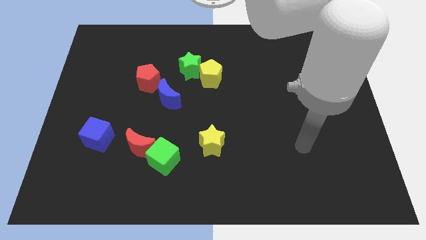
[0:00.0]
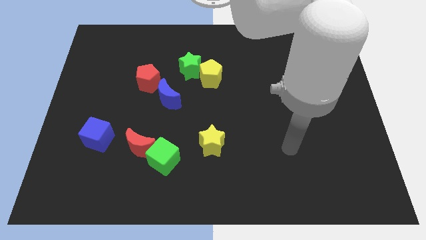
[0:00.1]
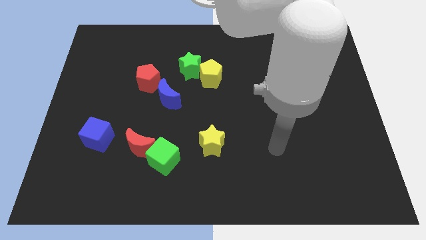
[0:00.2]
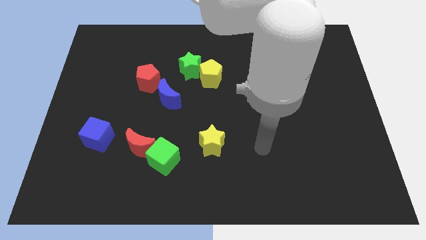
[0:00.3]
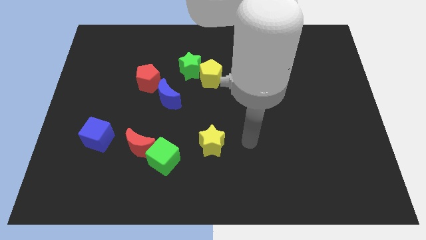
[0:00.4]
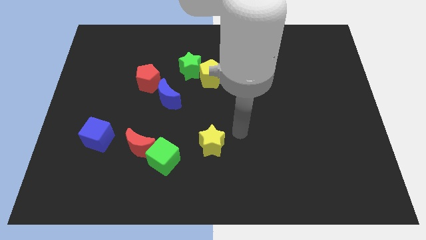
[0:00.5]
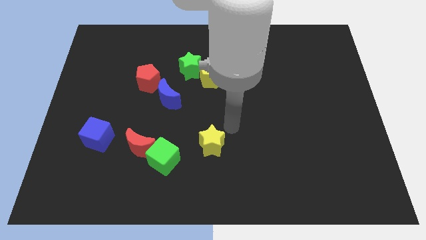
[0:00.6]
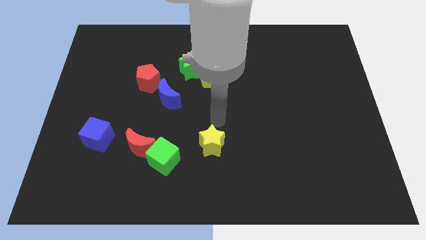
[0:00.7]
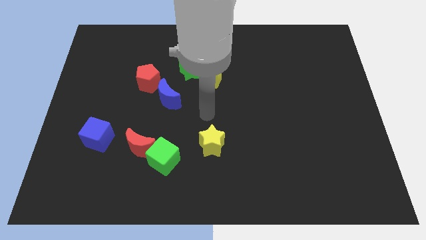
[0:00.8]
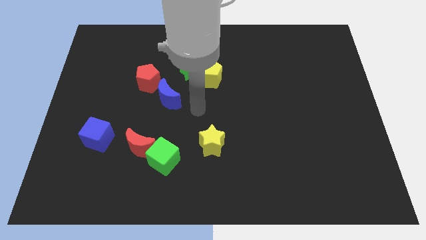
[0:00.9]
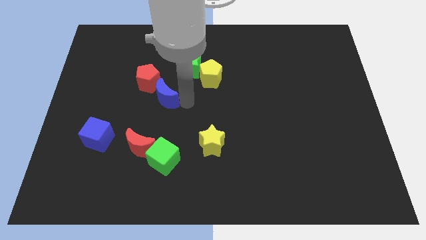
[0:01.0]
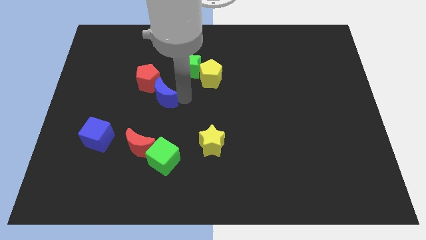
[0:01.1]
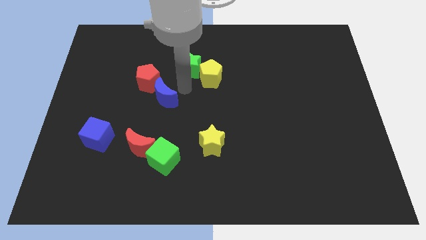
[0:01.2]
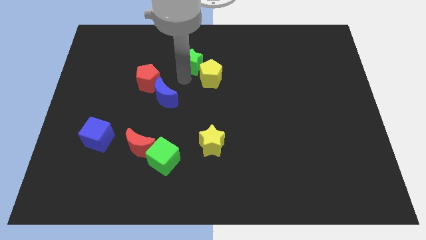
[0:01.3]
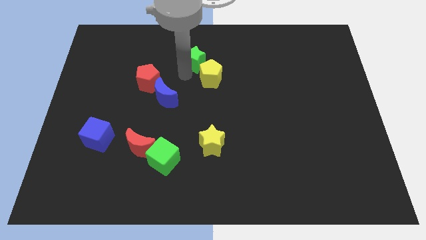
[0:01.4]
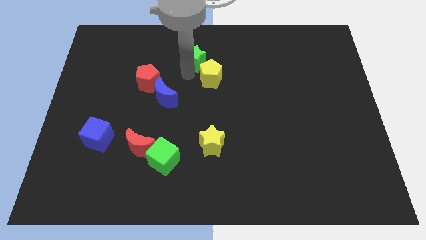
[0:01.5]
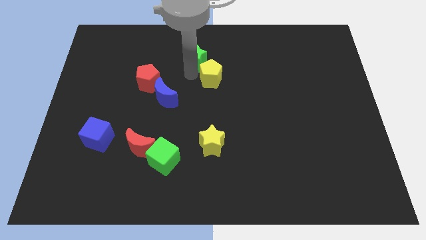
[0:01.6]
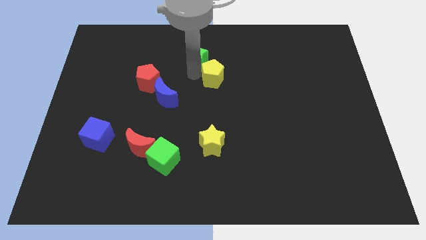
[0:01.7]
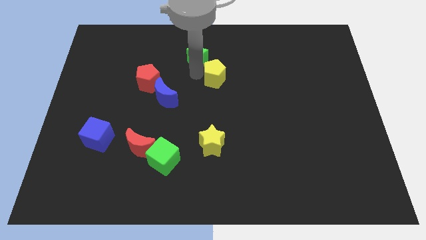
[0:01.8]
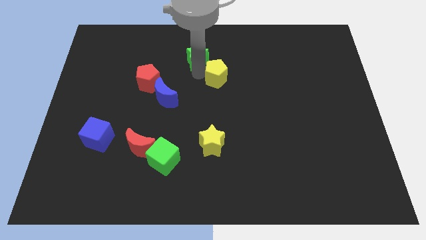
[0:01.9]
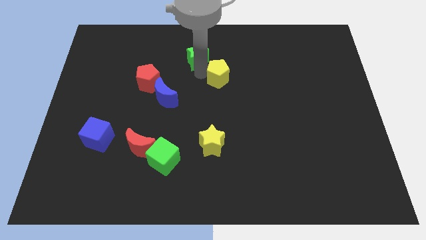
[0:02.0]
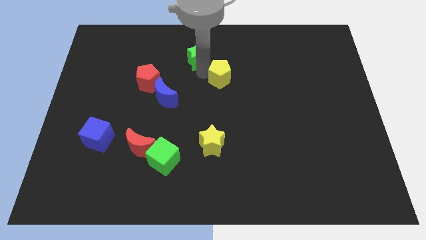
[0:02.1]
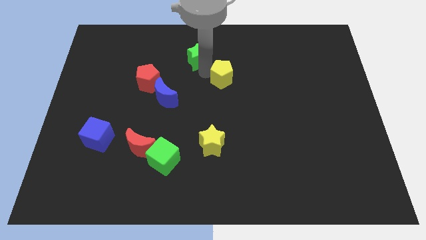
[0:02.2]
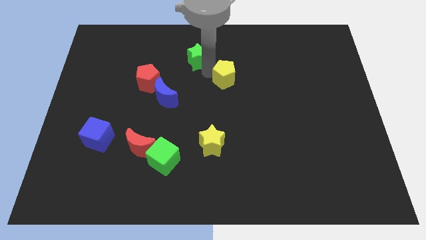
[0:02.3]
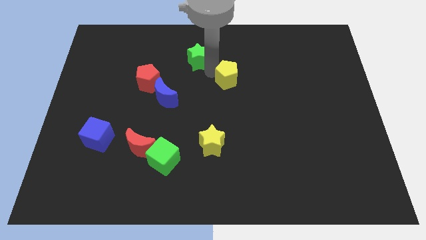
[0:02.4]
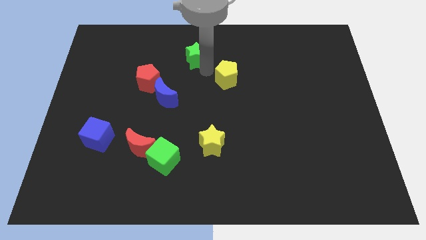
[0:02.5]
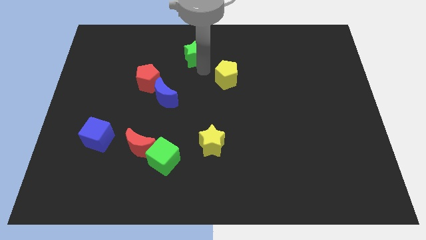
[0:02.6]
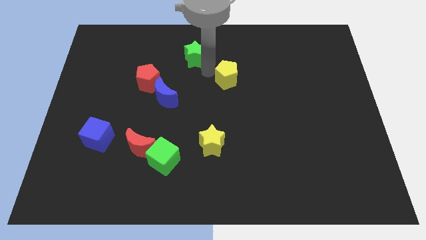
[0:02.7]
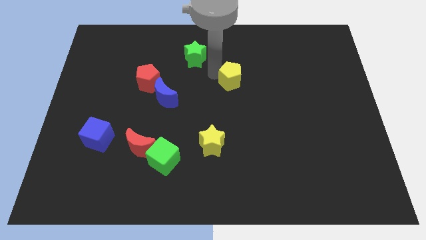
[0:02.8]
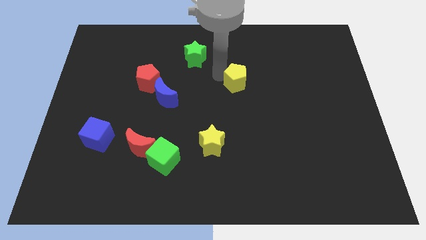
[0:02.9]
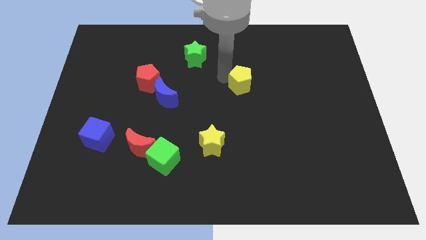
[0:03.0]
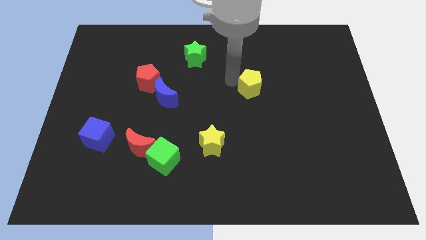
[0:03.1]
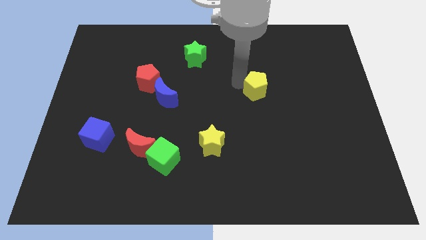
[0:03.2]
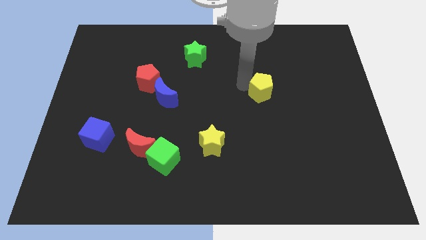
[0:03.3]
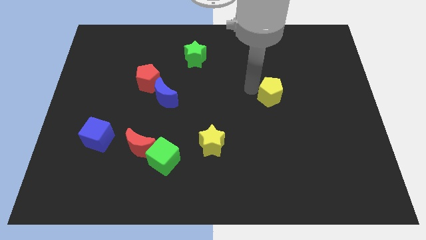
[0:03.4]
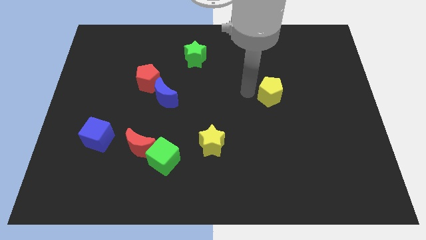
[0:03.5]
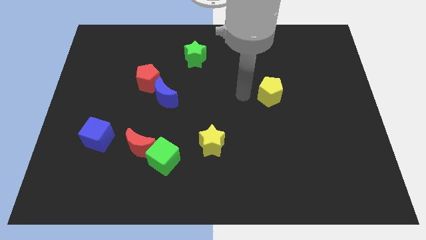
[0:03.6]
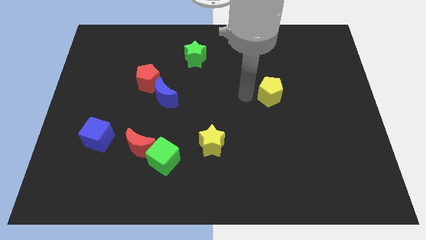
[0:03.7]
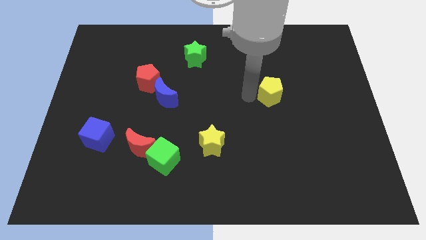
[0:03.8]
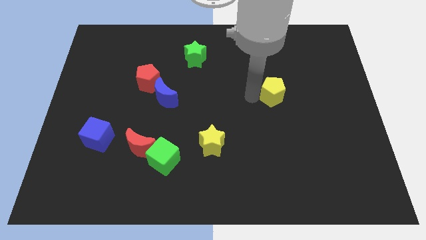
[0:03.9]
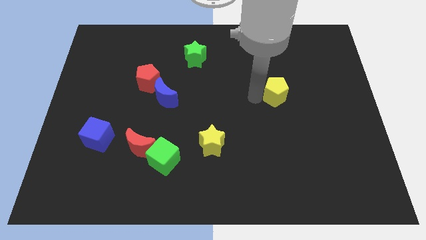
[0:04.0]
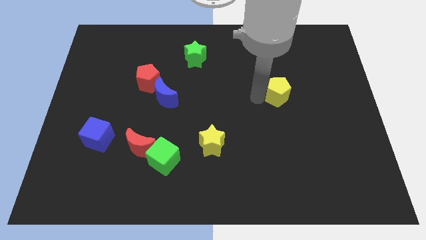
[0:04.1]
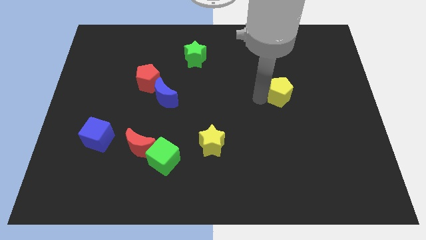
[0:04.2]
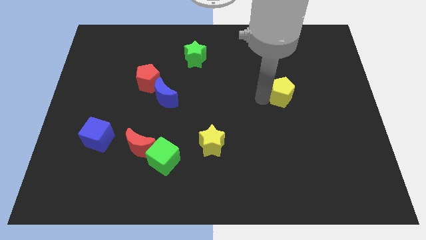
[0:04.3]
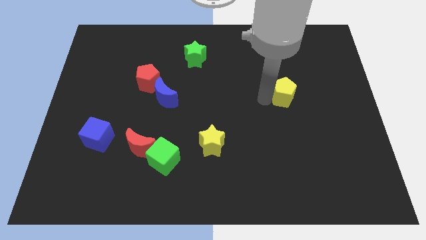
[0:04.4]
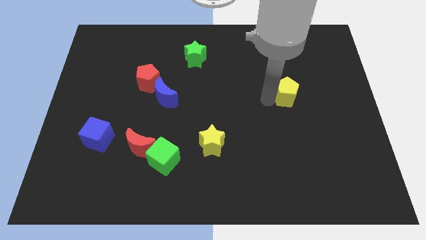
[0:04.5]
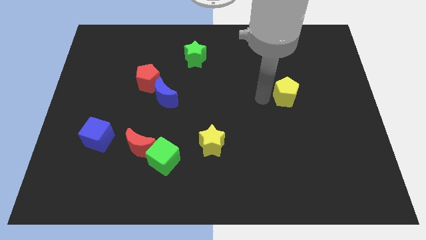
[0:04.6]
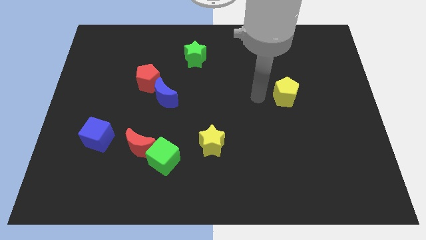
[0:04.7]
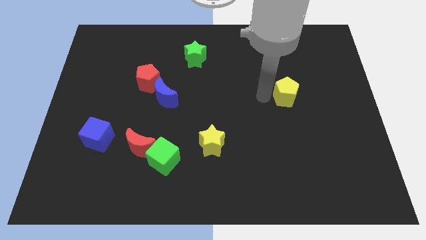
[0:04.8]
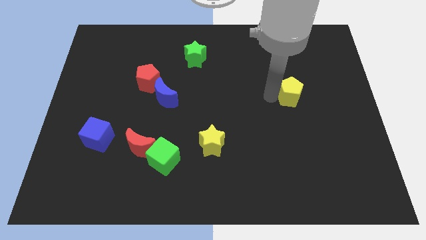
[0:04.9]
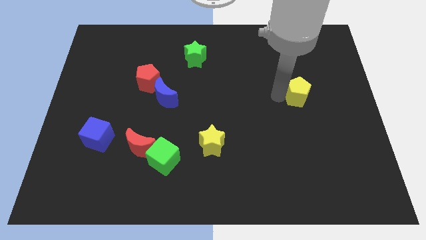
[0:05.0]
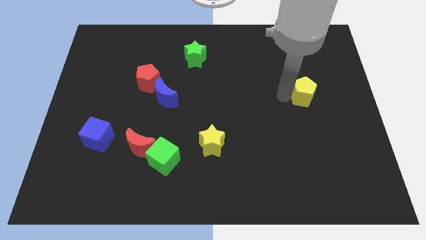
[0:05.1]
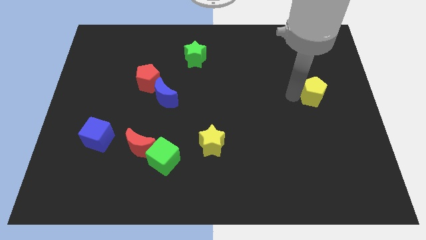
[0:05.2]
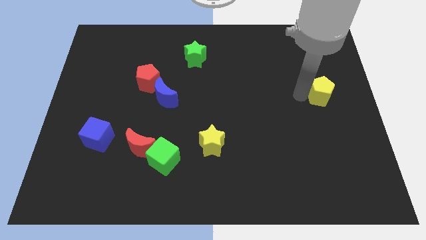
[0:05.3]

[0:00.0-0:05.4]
push the yellow pentagon to the right side of the board
